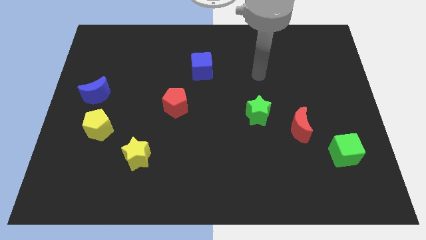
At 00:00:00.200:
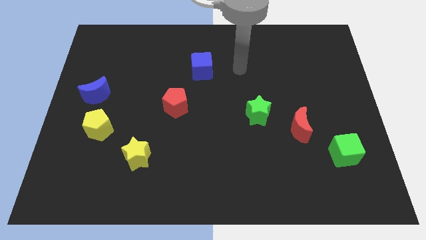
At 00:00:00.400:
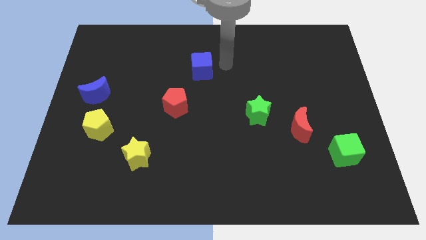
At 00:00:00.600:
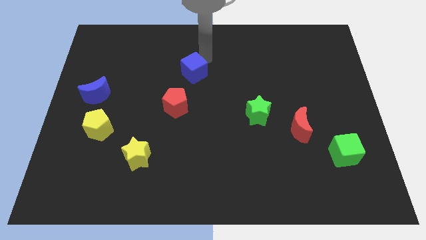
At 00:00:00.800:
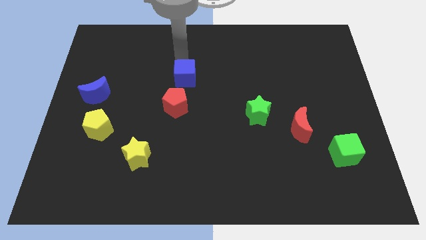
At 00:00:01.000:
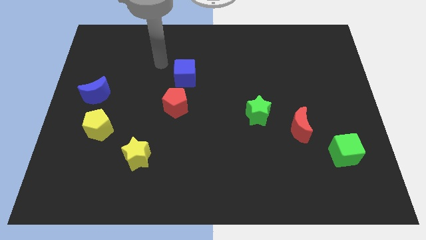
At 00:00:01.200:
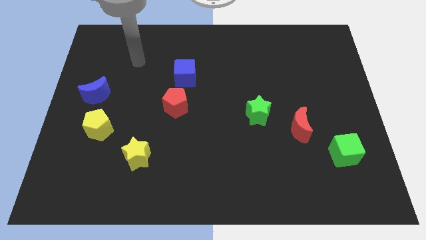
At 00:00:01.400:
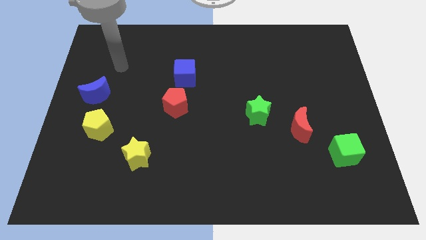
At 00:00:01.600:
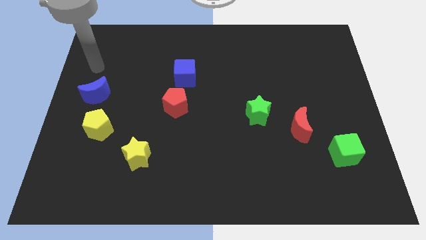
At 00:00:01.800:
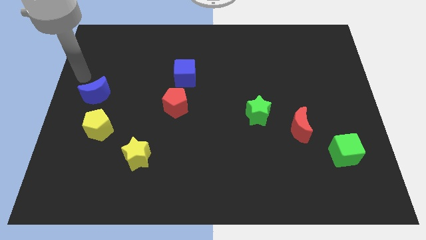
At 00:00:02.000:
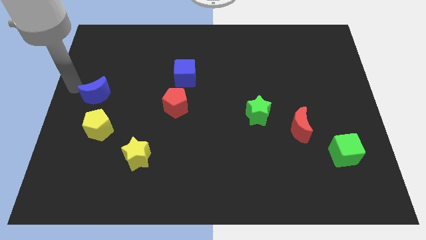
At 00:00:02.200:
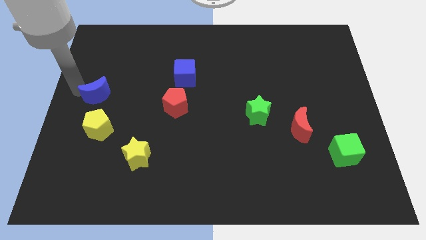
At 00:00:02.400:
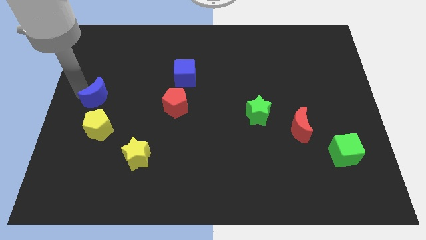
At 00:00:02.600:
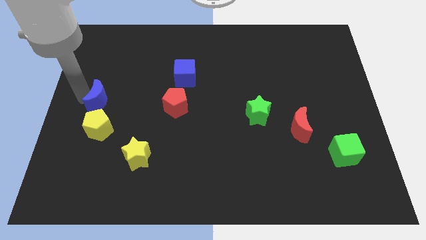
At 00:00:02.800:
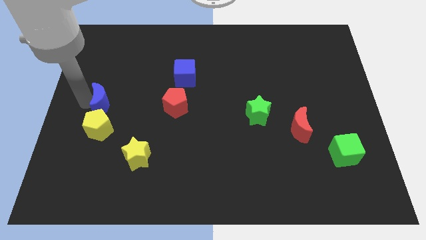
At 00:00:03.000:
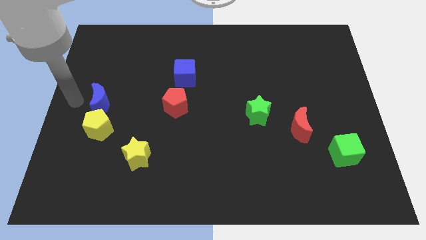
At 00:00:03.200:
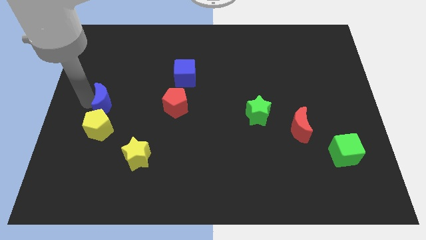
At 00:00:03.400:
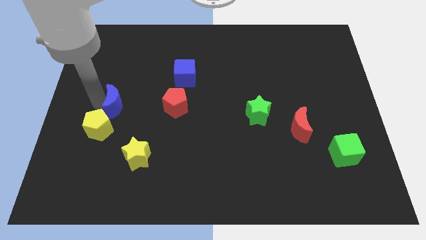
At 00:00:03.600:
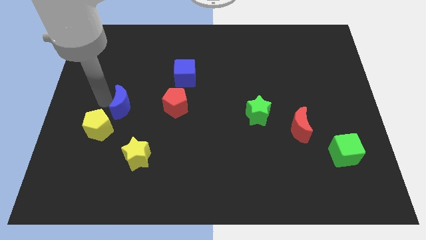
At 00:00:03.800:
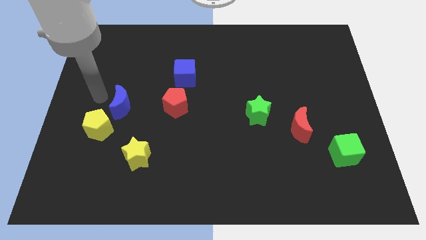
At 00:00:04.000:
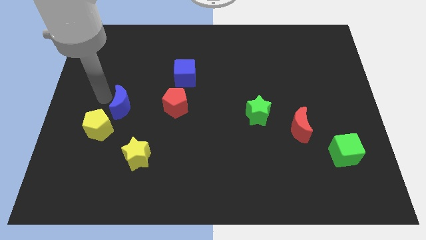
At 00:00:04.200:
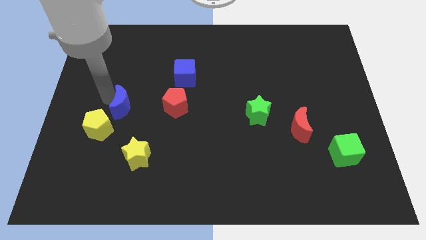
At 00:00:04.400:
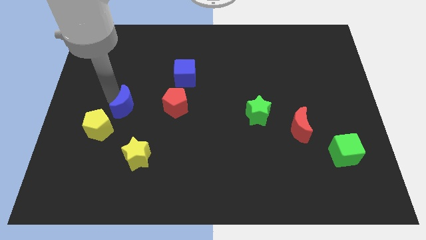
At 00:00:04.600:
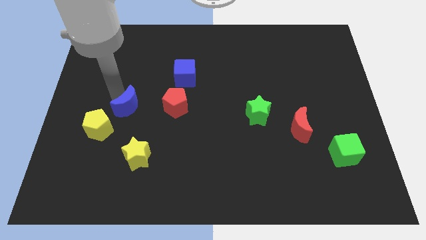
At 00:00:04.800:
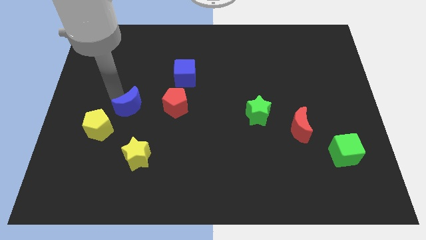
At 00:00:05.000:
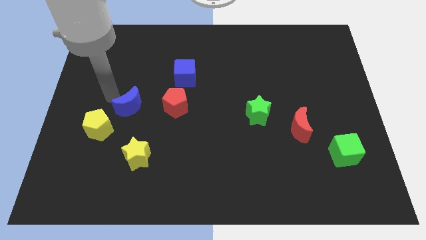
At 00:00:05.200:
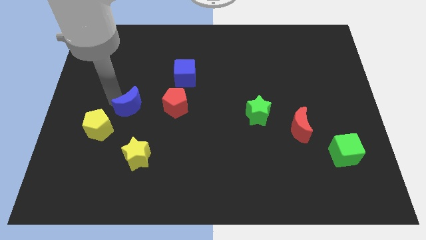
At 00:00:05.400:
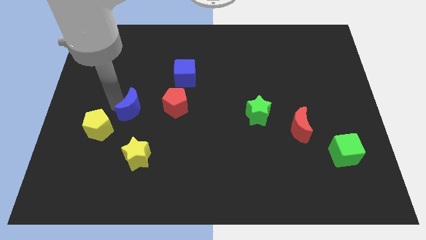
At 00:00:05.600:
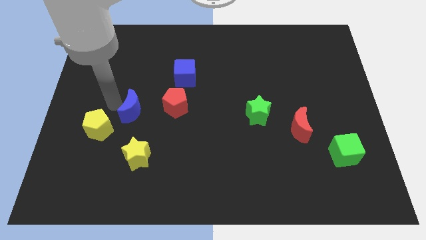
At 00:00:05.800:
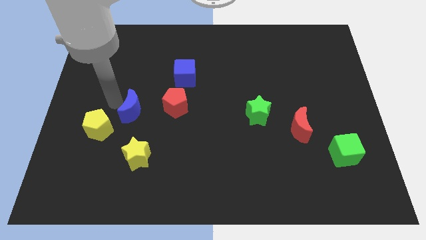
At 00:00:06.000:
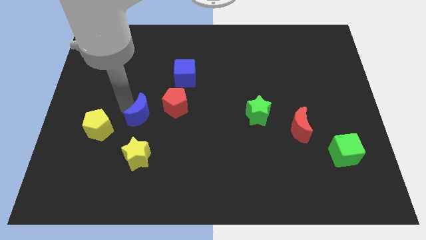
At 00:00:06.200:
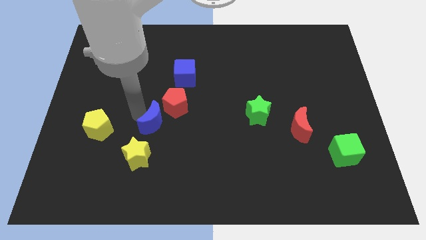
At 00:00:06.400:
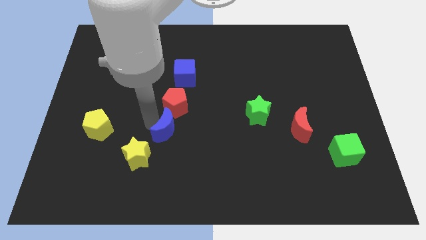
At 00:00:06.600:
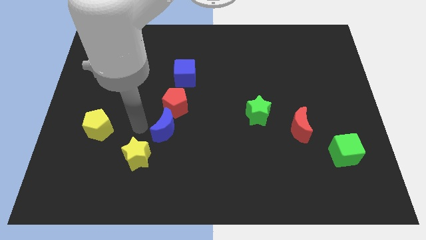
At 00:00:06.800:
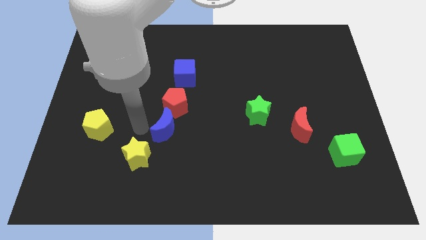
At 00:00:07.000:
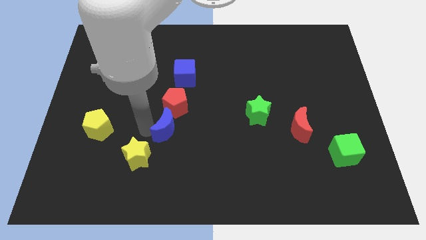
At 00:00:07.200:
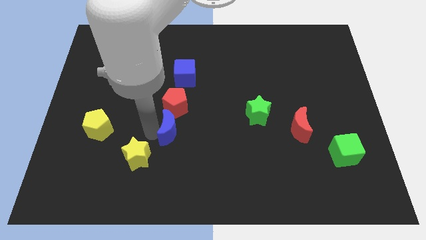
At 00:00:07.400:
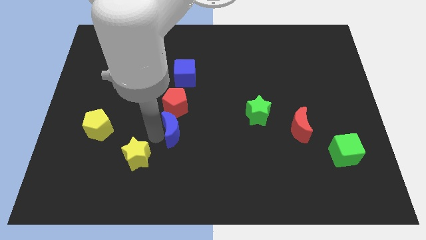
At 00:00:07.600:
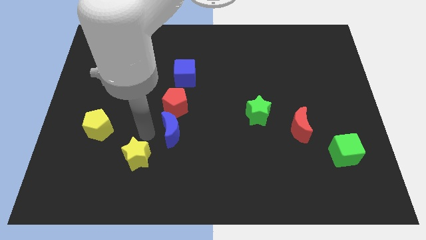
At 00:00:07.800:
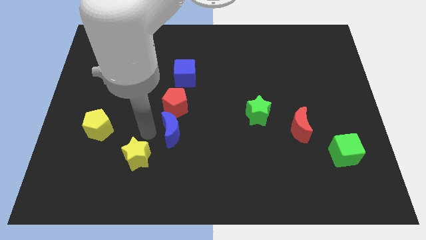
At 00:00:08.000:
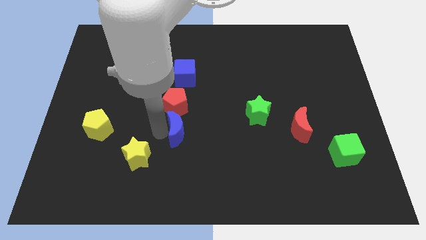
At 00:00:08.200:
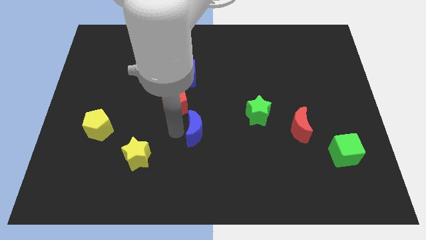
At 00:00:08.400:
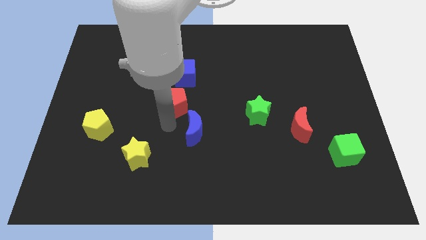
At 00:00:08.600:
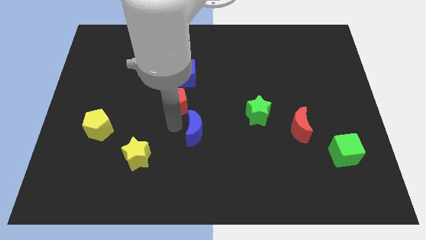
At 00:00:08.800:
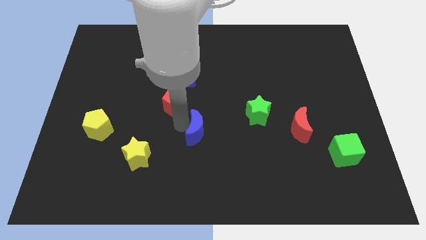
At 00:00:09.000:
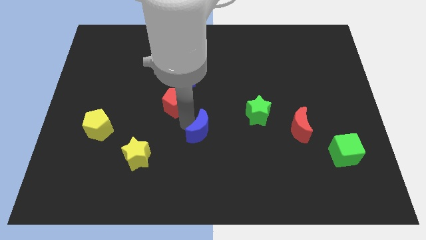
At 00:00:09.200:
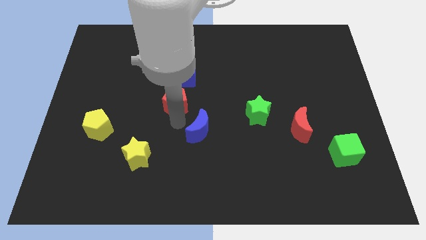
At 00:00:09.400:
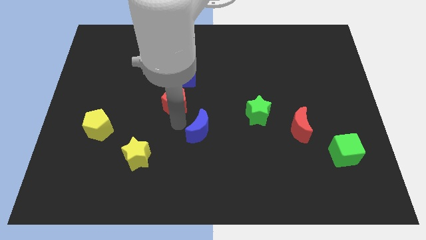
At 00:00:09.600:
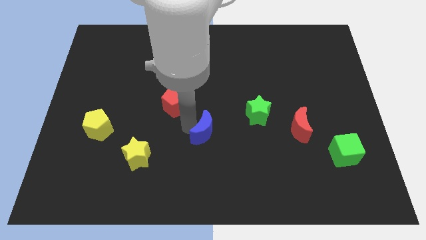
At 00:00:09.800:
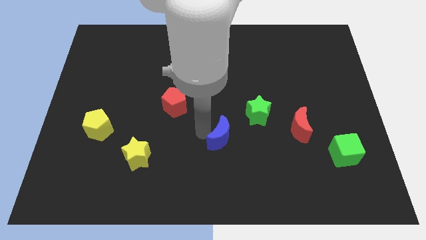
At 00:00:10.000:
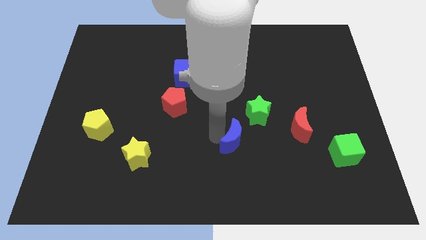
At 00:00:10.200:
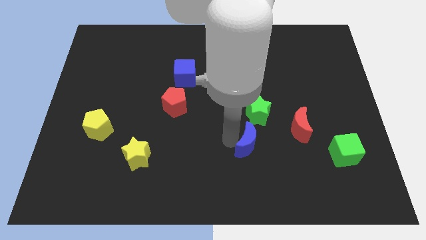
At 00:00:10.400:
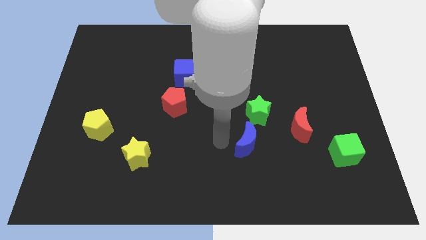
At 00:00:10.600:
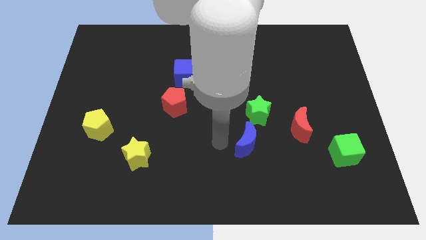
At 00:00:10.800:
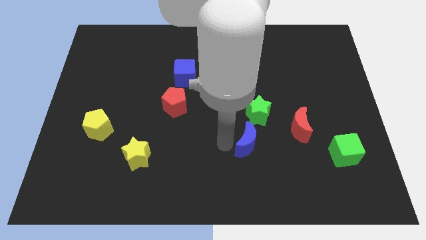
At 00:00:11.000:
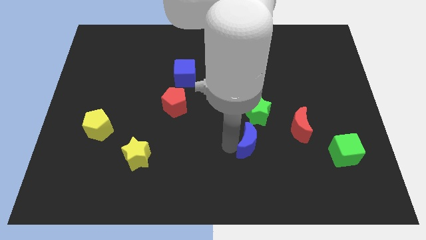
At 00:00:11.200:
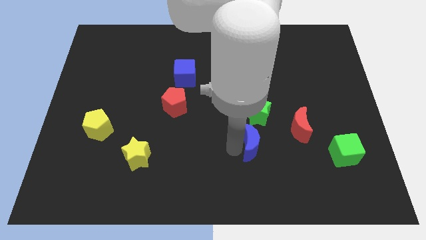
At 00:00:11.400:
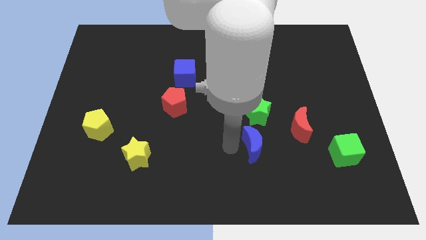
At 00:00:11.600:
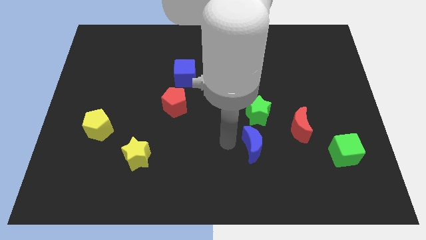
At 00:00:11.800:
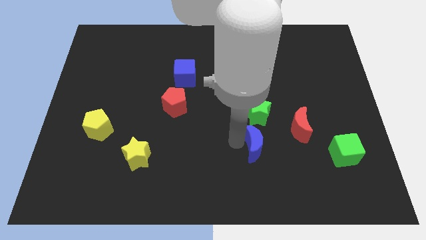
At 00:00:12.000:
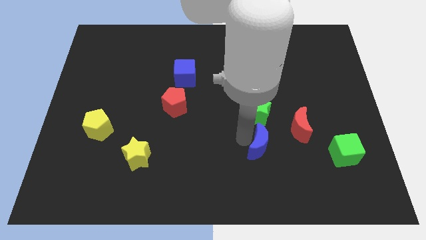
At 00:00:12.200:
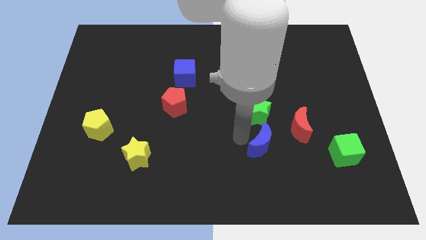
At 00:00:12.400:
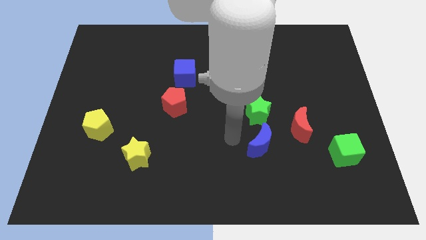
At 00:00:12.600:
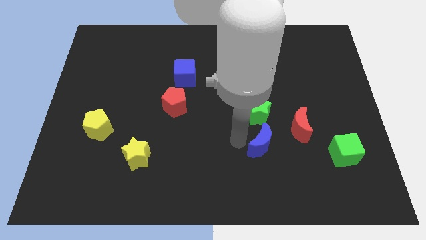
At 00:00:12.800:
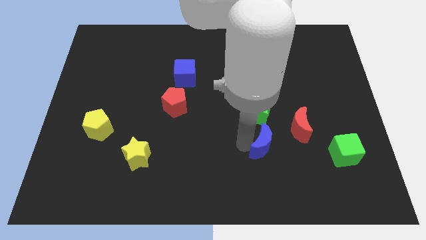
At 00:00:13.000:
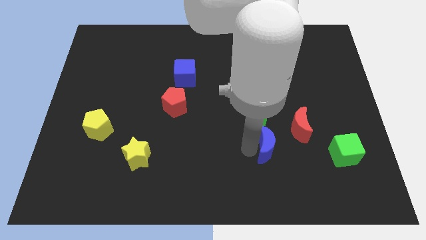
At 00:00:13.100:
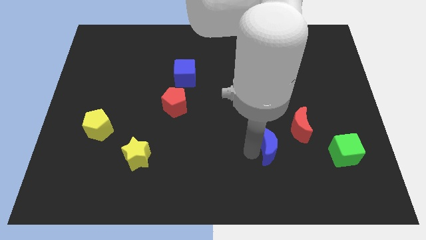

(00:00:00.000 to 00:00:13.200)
move the blue moon to the left side of the green cube

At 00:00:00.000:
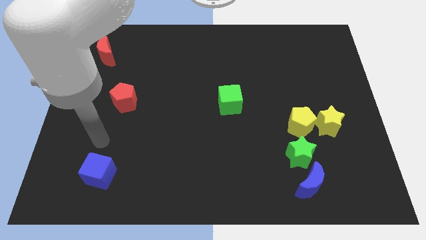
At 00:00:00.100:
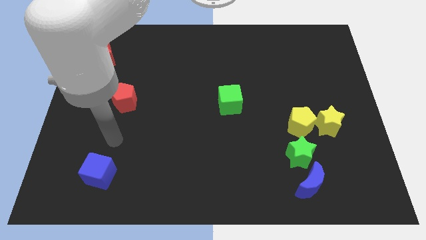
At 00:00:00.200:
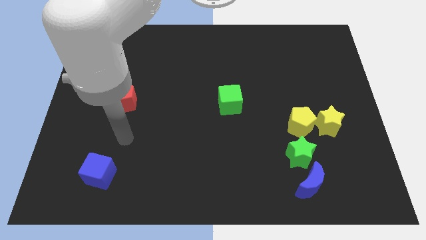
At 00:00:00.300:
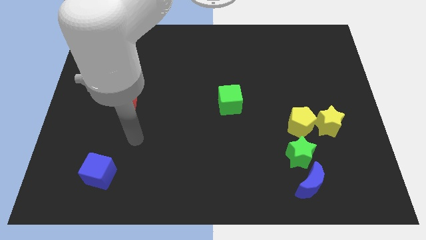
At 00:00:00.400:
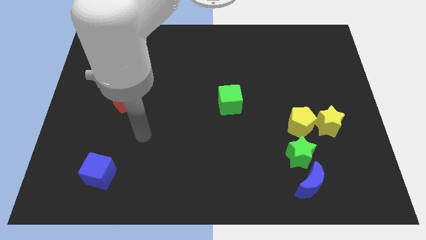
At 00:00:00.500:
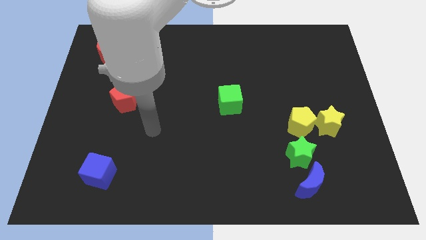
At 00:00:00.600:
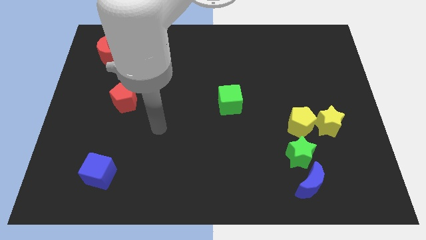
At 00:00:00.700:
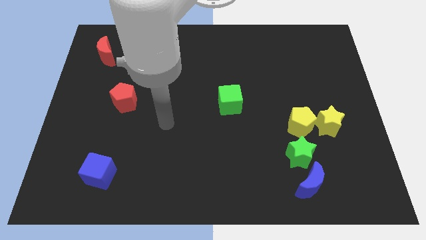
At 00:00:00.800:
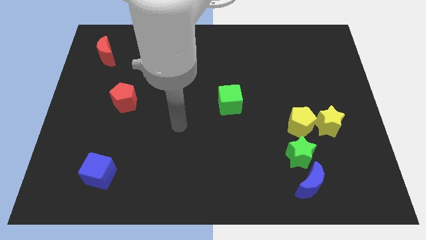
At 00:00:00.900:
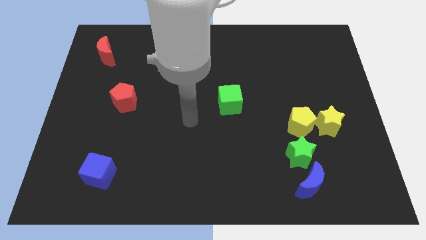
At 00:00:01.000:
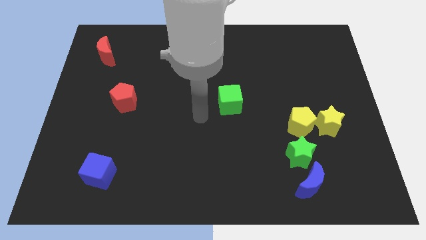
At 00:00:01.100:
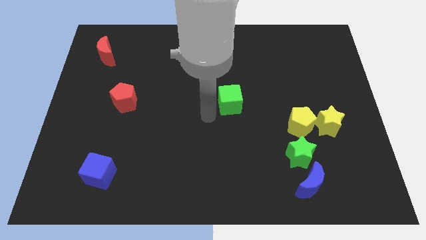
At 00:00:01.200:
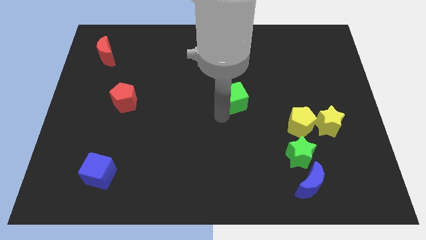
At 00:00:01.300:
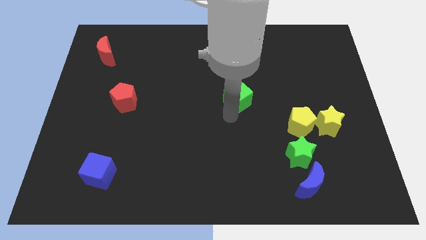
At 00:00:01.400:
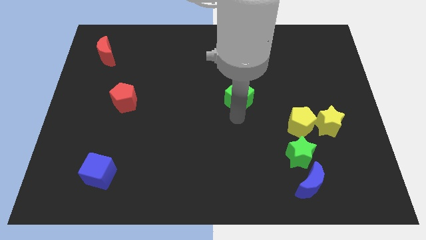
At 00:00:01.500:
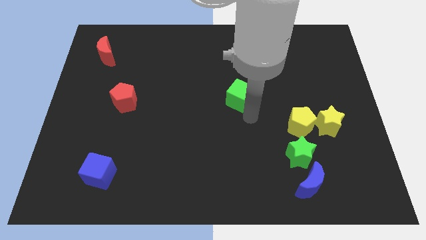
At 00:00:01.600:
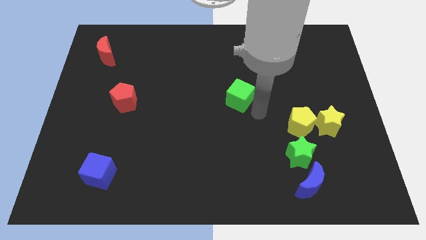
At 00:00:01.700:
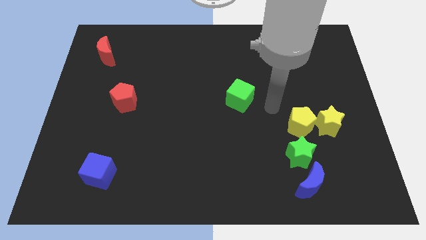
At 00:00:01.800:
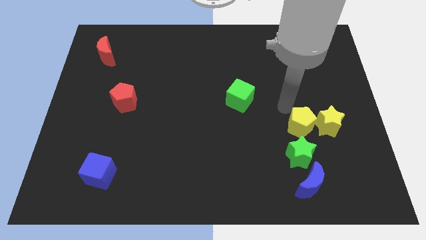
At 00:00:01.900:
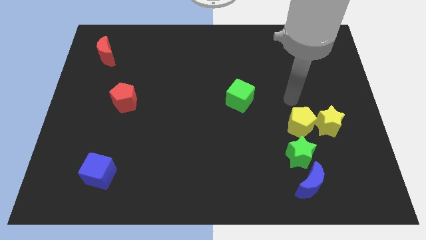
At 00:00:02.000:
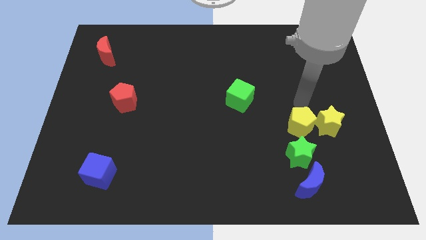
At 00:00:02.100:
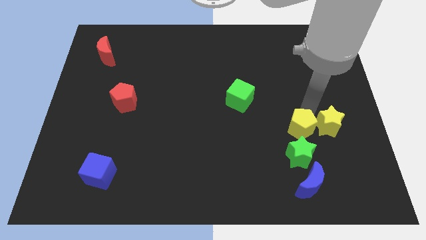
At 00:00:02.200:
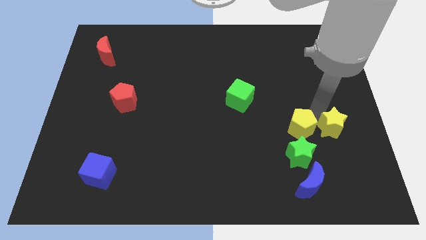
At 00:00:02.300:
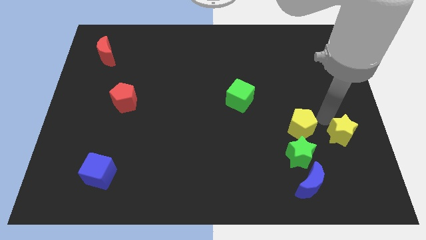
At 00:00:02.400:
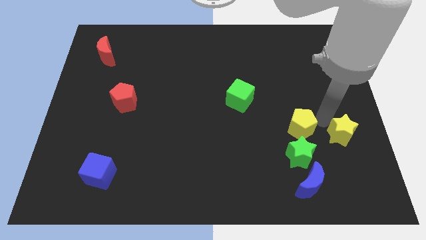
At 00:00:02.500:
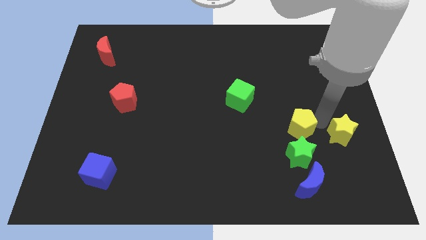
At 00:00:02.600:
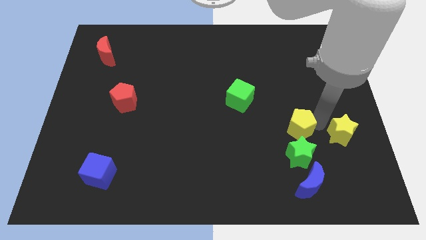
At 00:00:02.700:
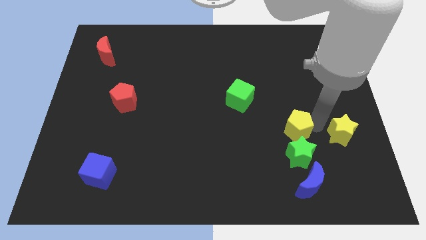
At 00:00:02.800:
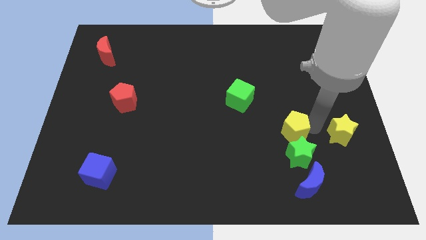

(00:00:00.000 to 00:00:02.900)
move the yellow pentagon to the top left side of the green star
